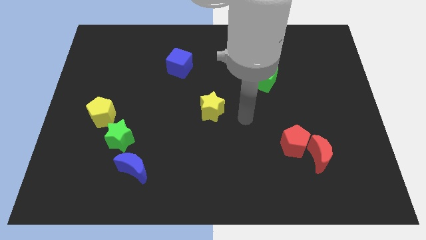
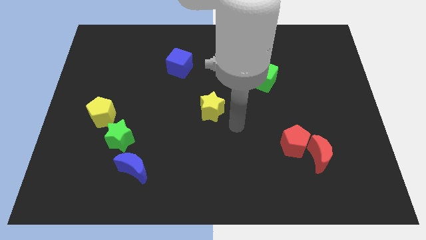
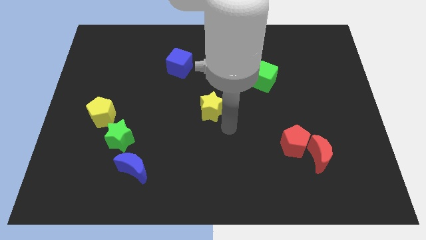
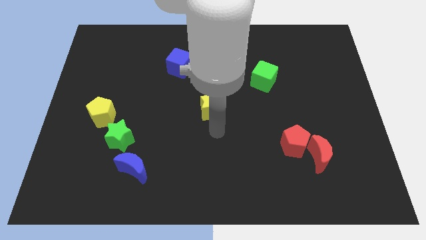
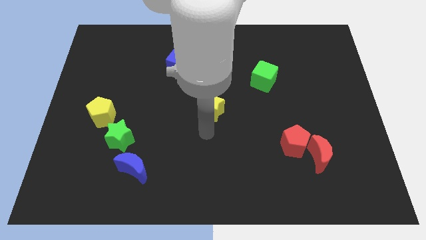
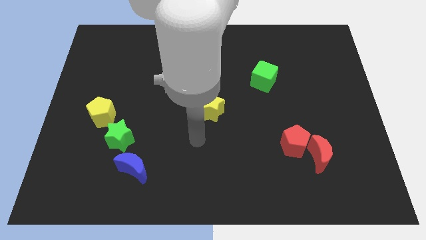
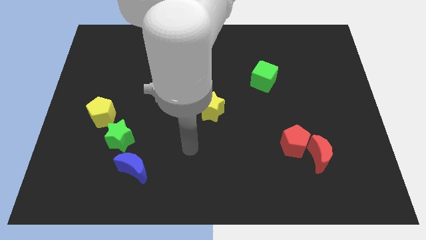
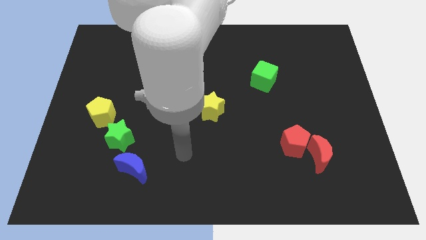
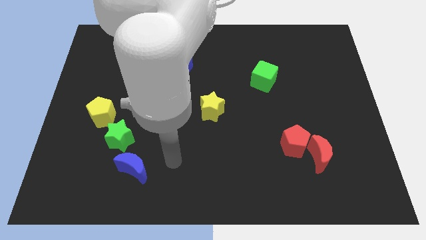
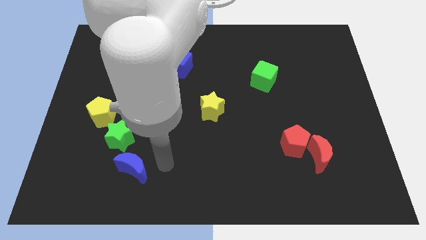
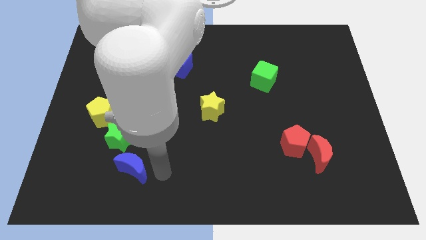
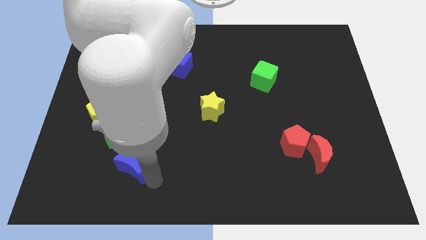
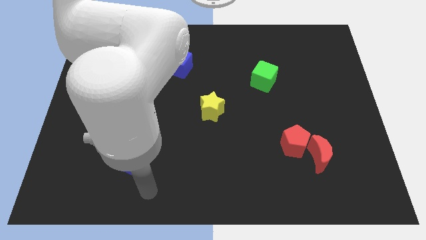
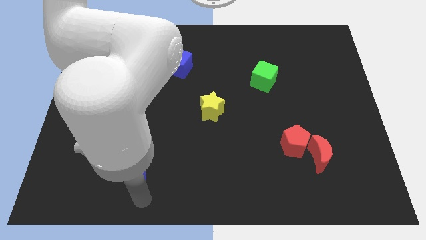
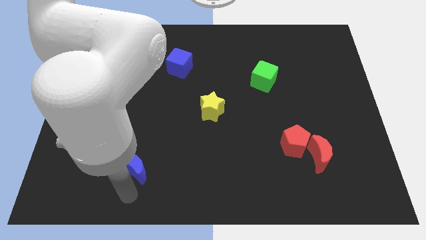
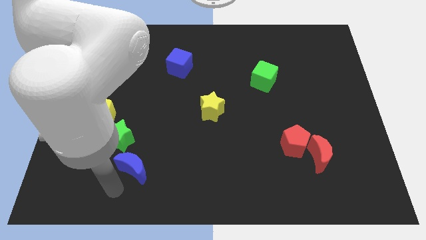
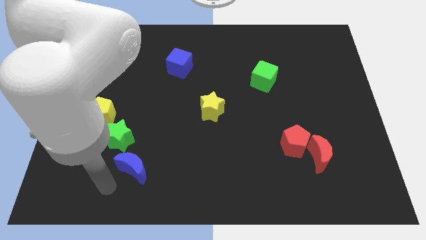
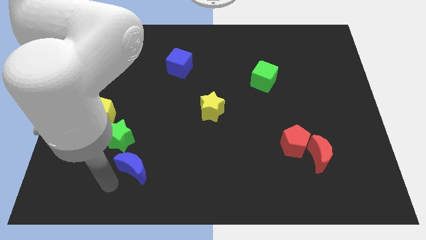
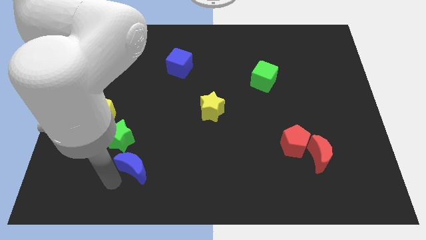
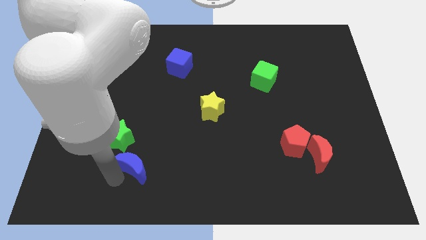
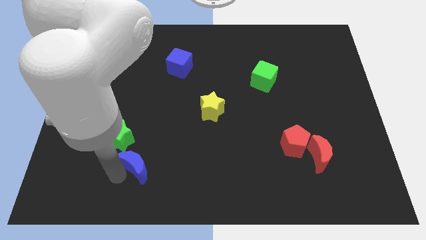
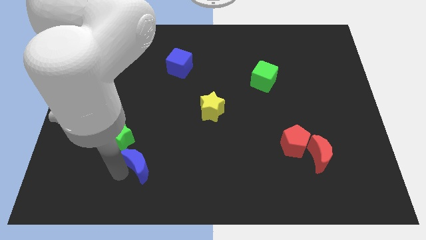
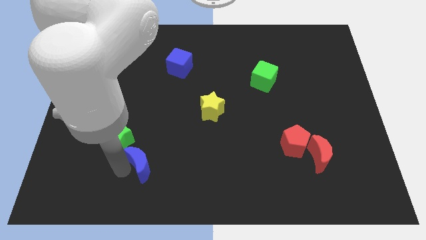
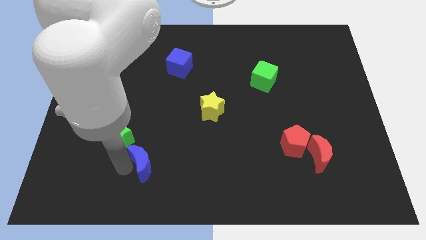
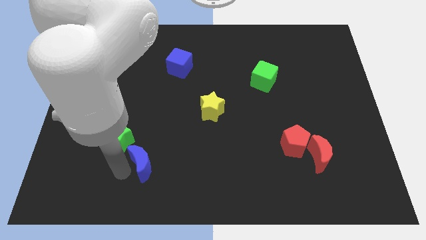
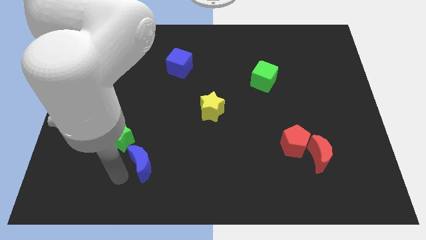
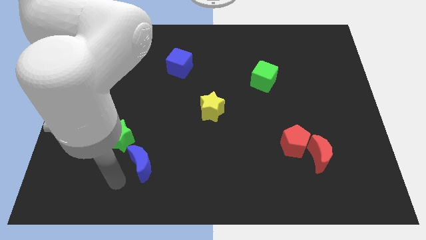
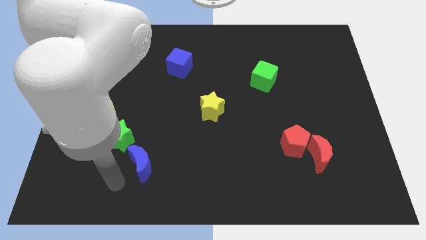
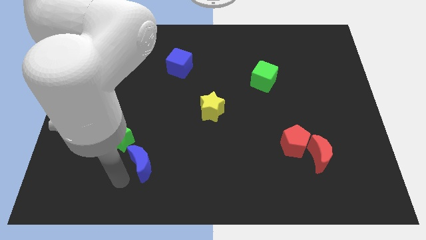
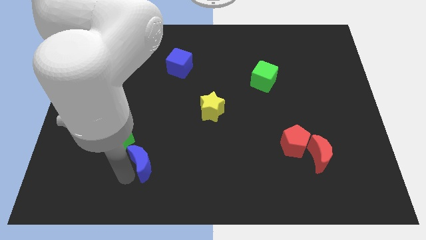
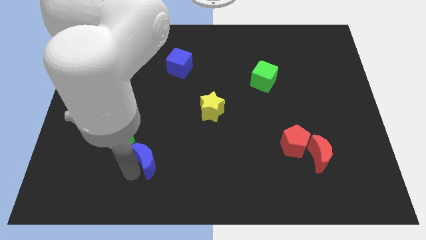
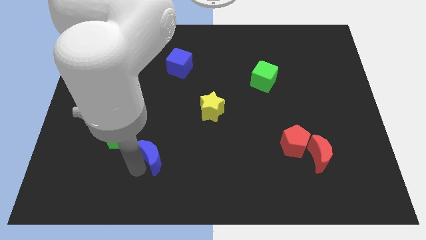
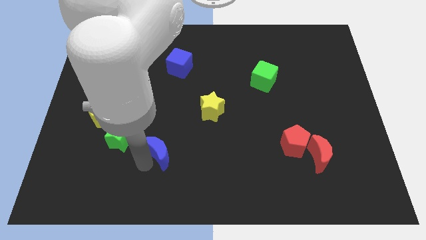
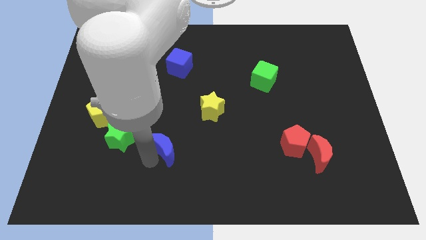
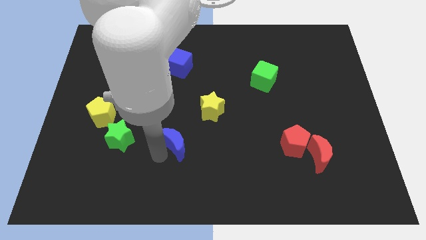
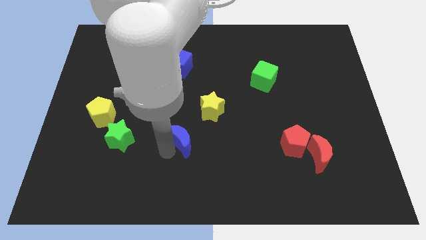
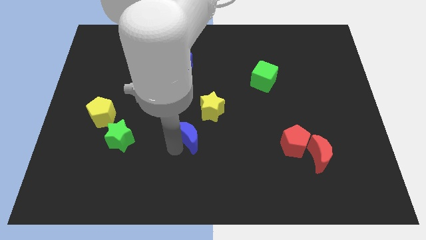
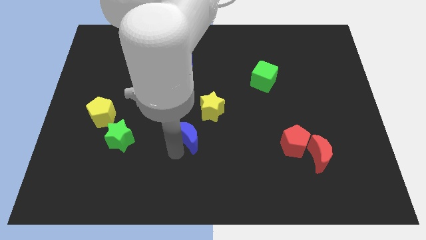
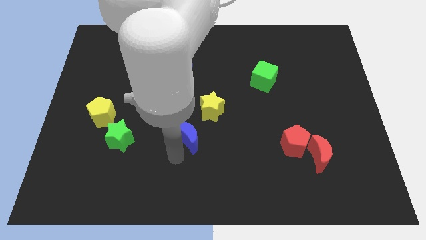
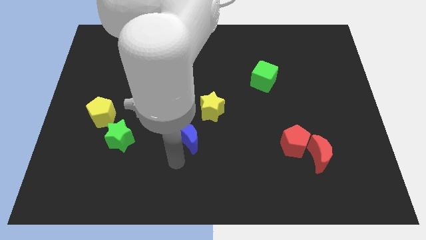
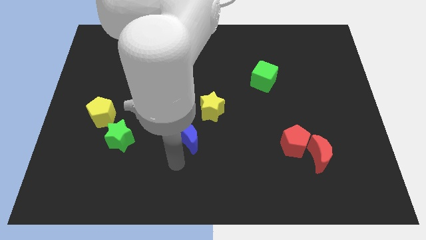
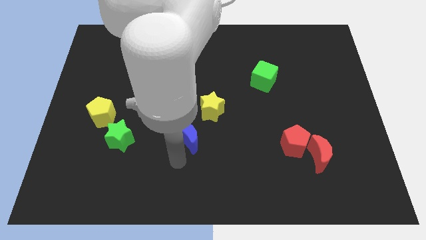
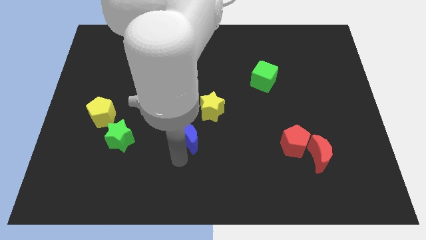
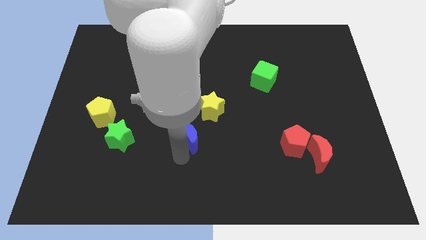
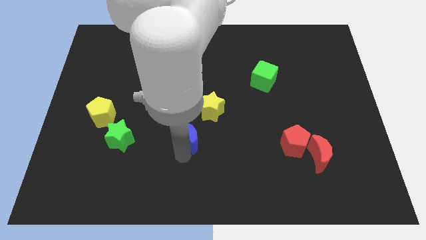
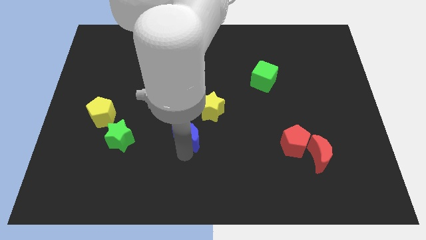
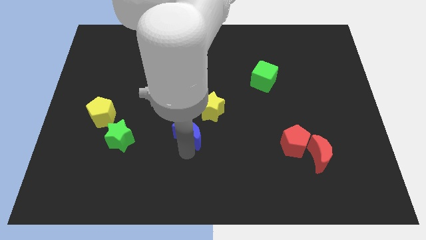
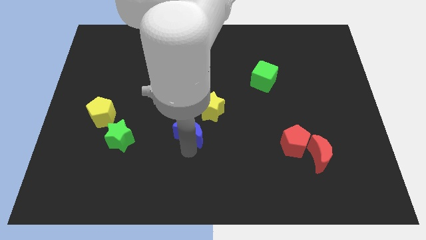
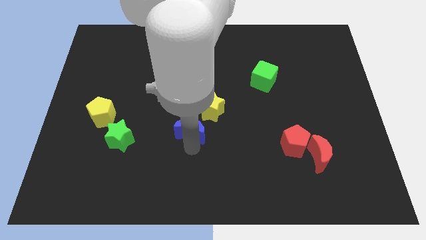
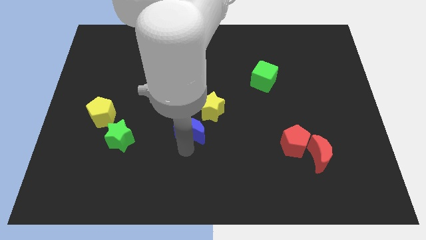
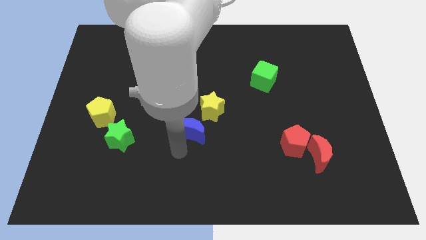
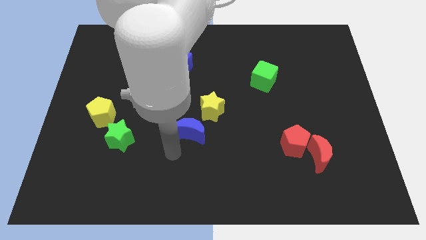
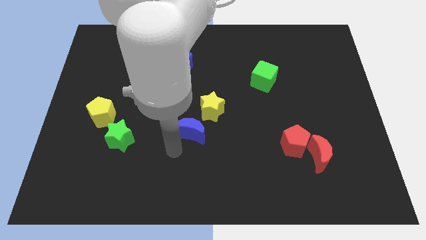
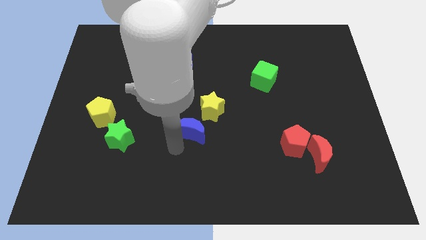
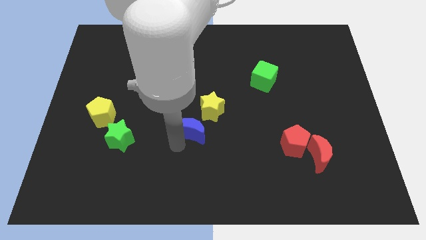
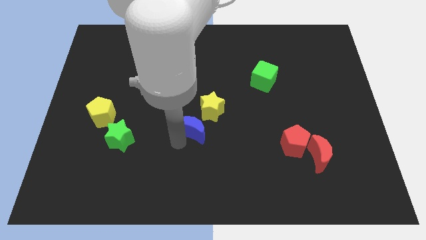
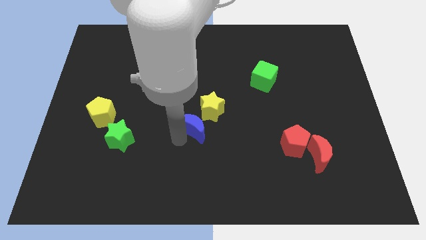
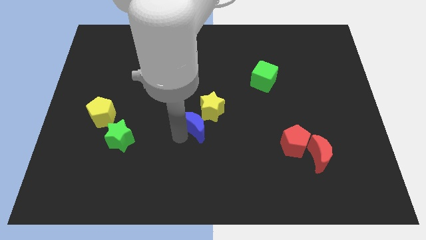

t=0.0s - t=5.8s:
put the blue moon towards the yellow star

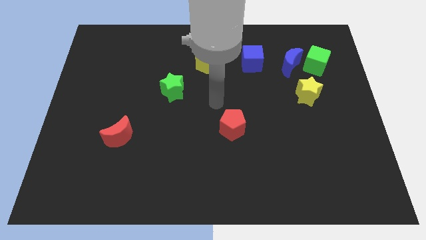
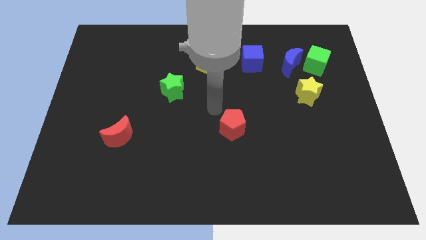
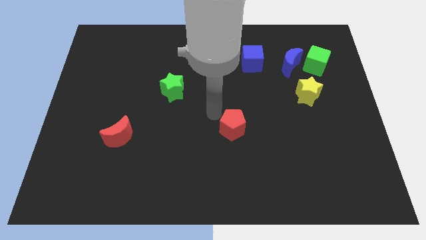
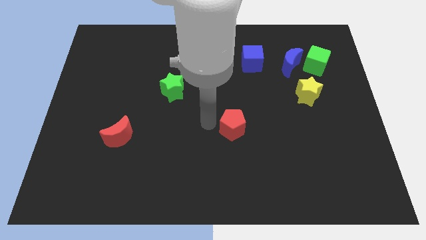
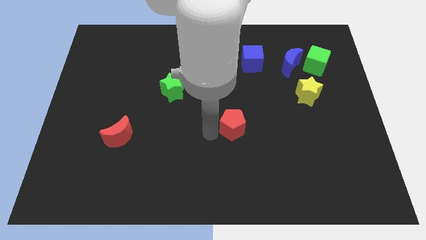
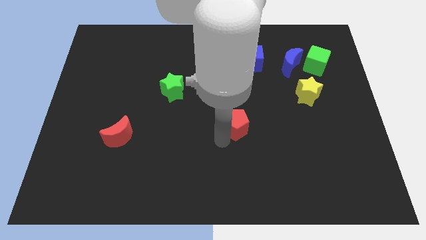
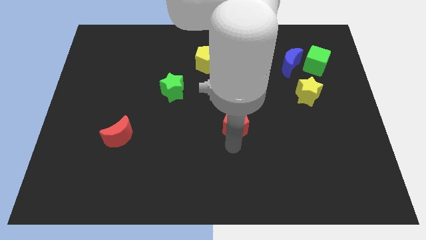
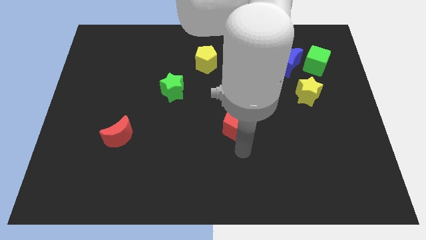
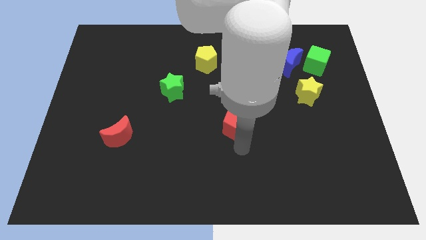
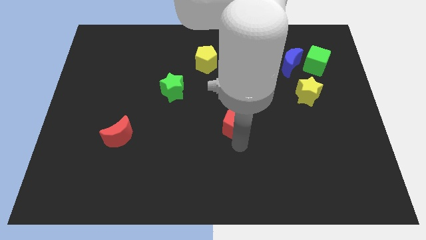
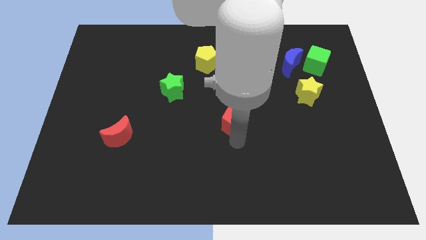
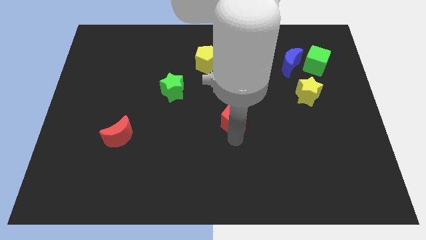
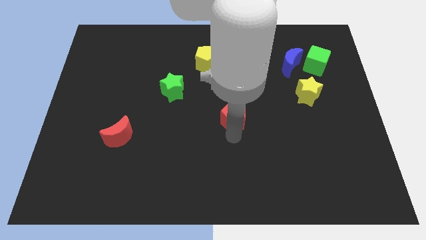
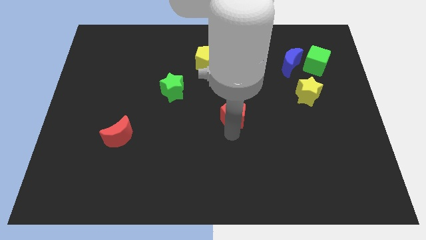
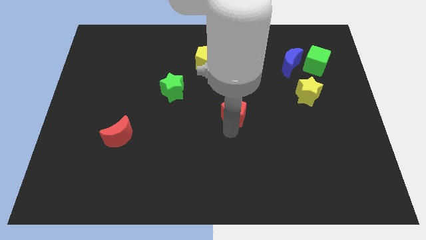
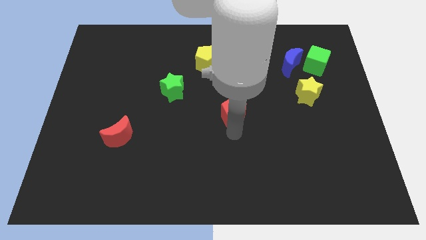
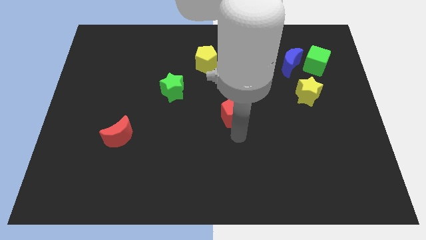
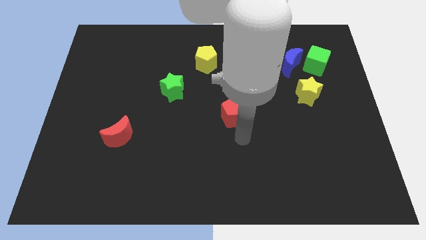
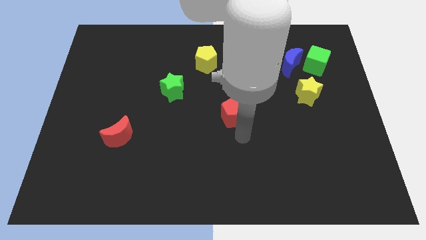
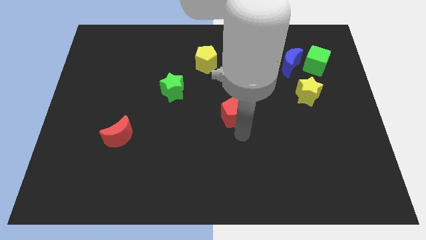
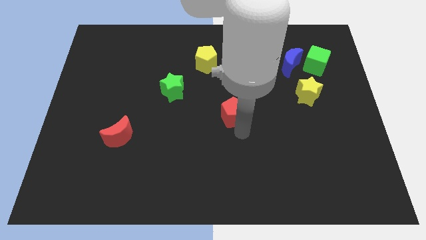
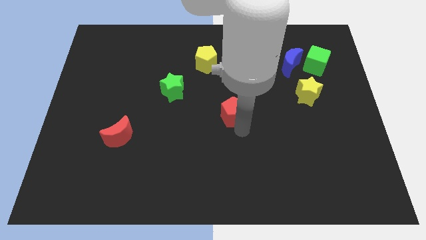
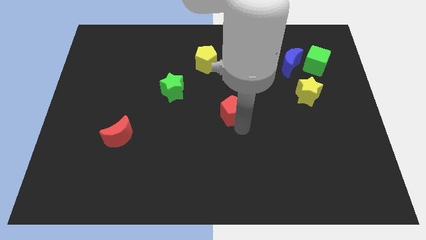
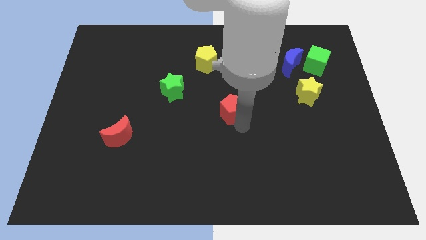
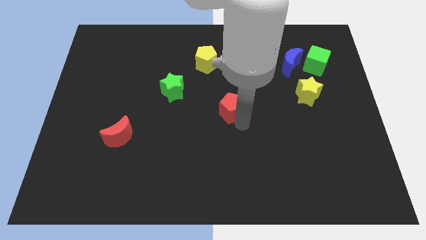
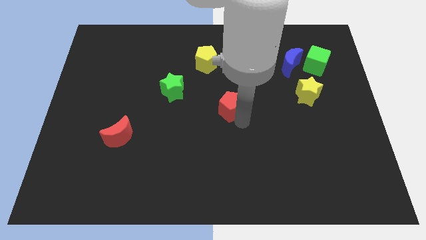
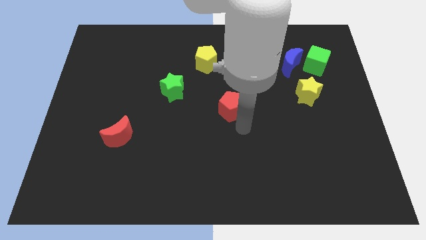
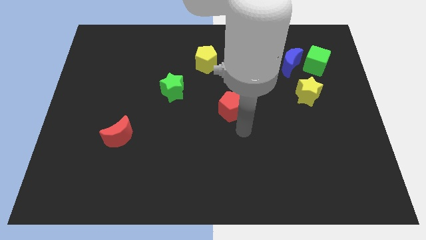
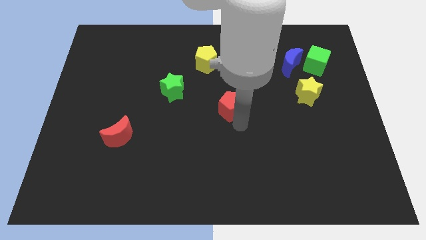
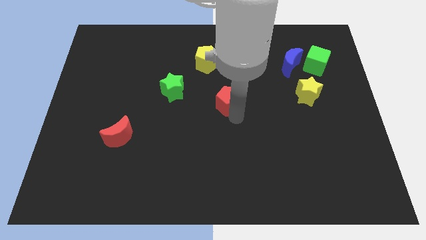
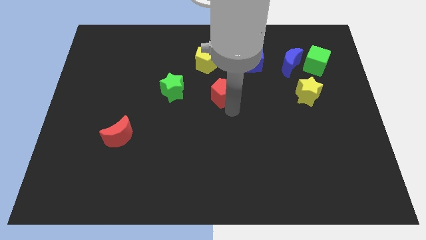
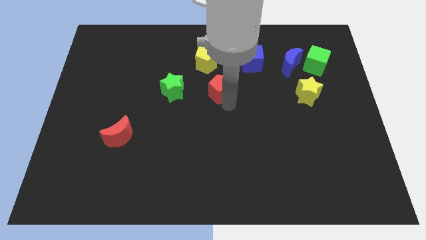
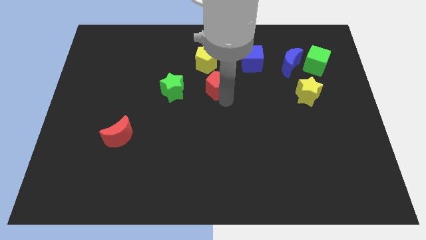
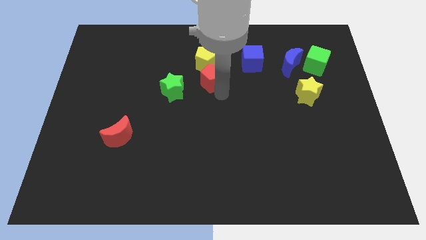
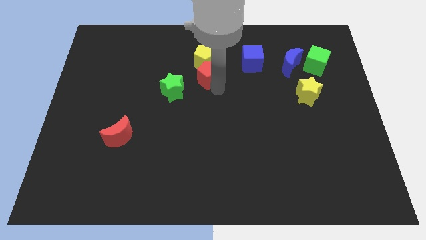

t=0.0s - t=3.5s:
put the red pentagon to the yellow pentagon
